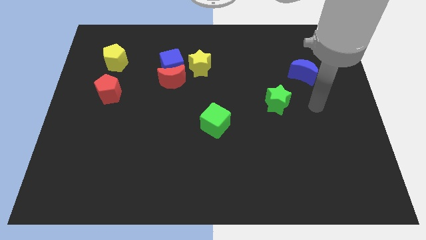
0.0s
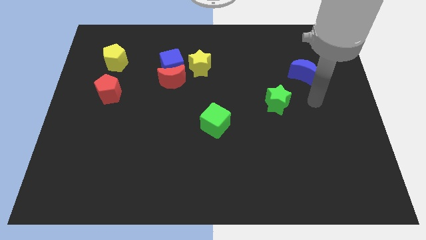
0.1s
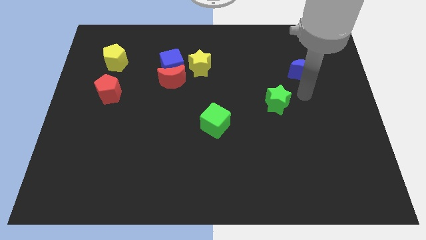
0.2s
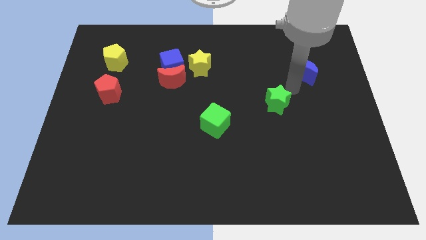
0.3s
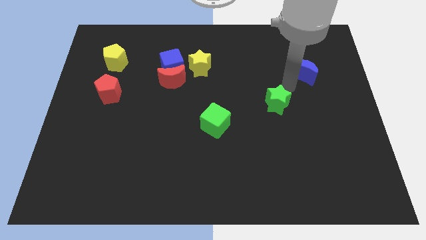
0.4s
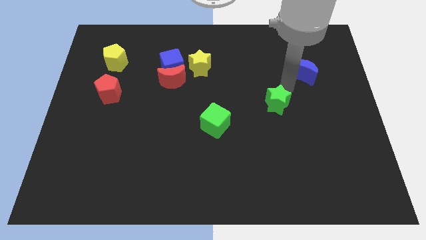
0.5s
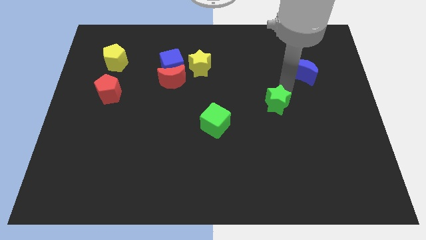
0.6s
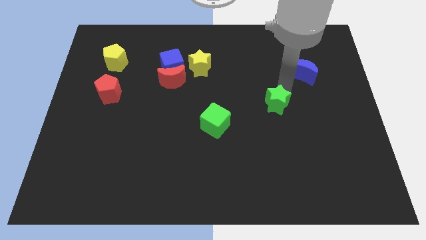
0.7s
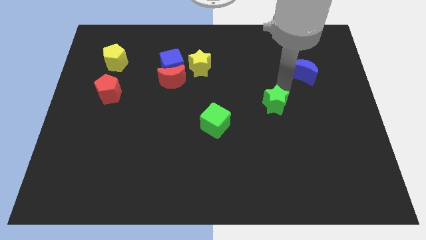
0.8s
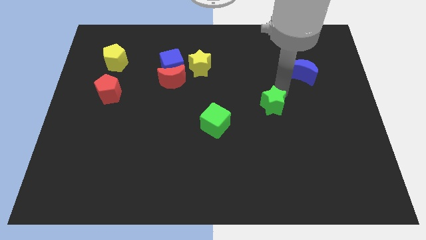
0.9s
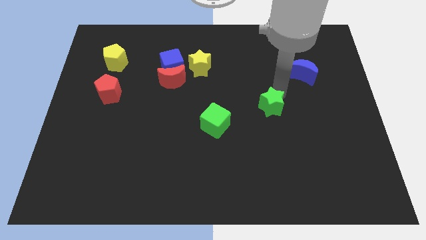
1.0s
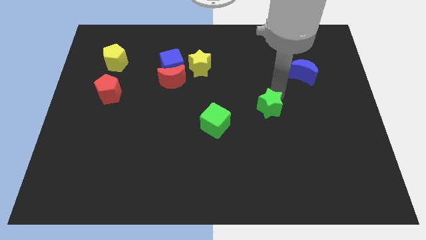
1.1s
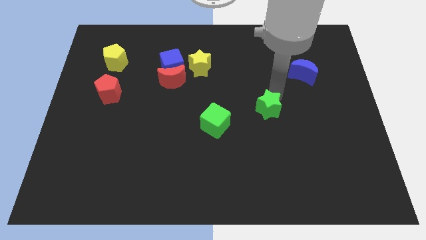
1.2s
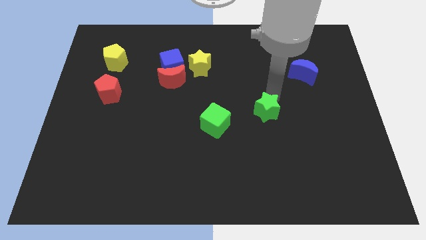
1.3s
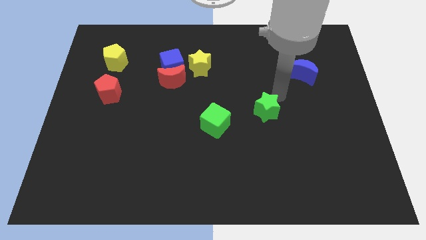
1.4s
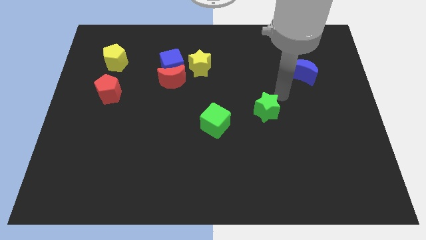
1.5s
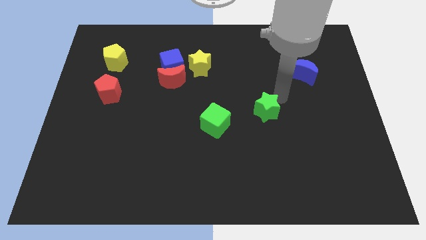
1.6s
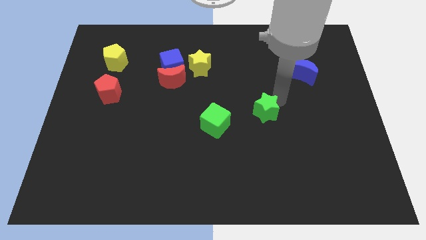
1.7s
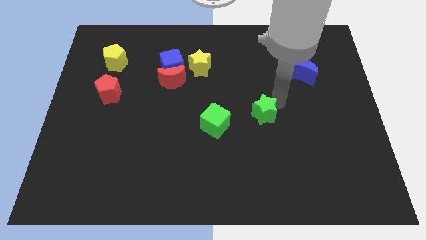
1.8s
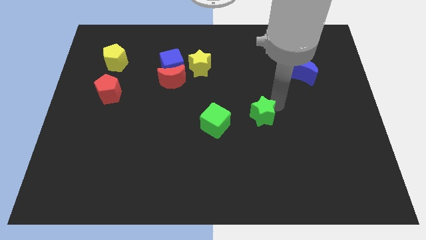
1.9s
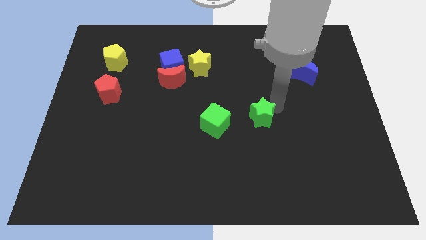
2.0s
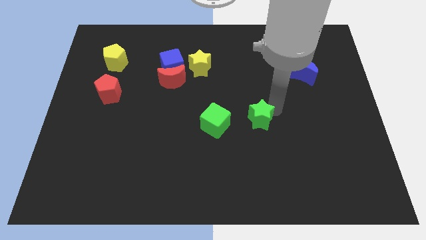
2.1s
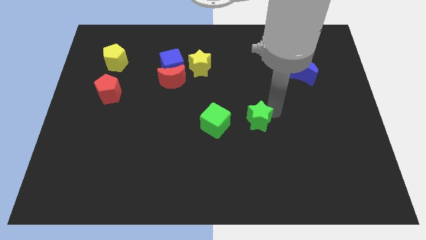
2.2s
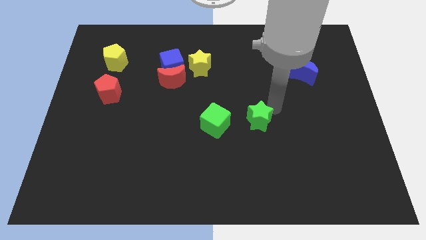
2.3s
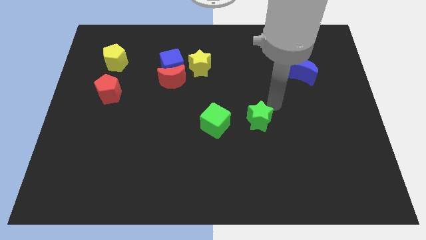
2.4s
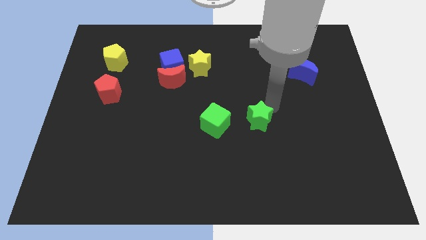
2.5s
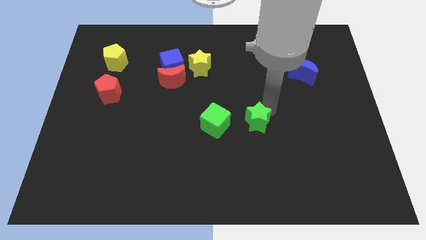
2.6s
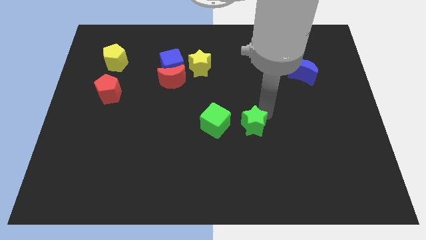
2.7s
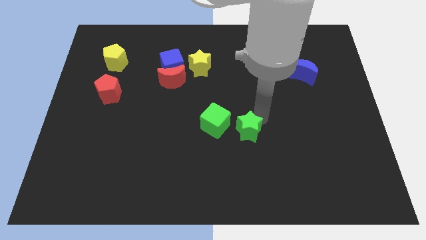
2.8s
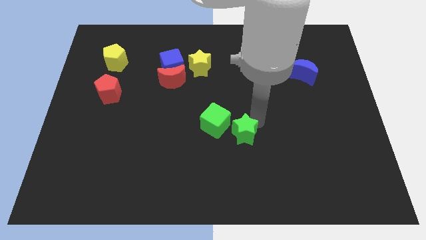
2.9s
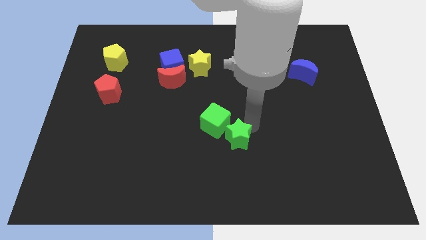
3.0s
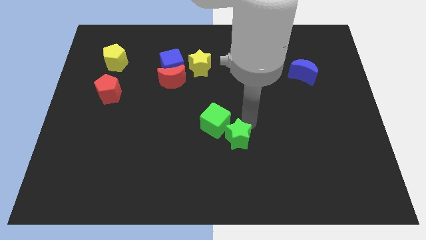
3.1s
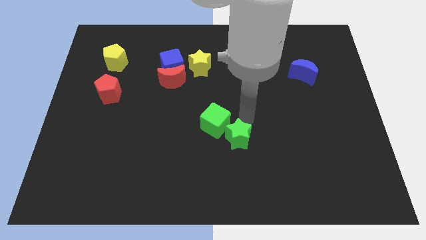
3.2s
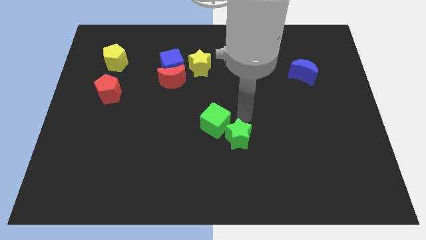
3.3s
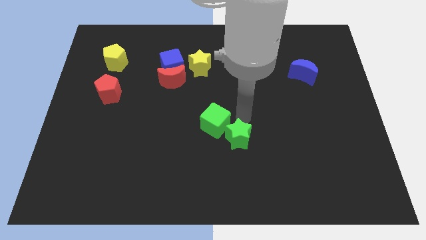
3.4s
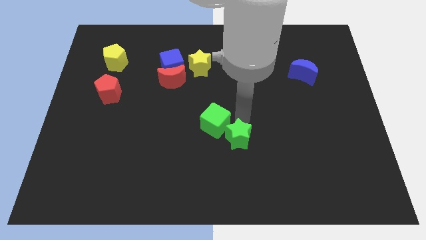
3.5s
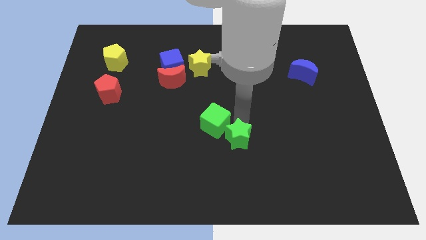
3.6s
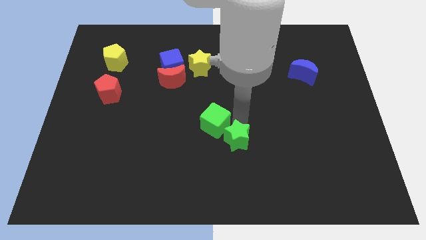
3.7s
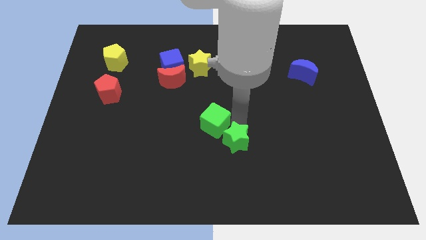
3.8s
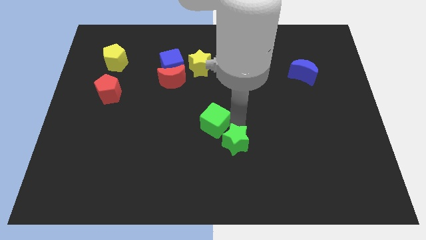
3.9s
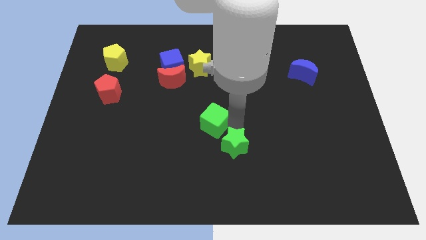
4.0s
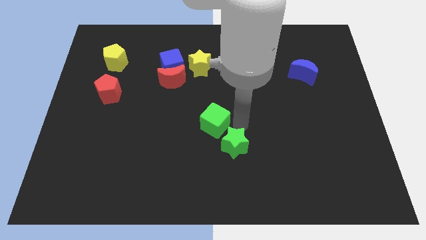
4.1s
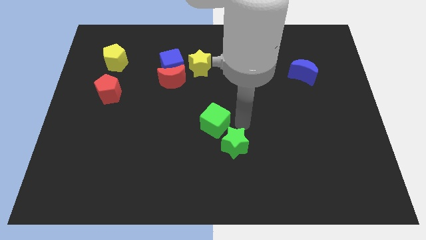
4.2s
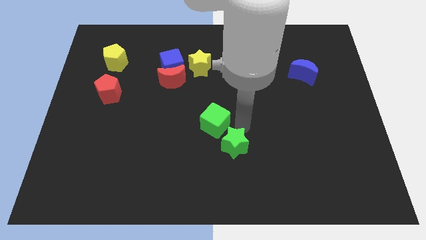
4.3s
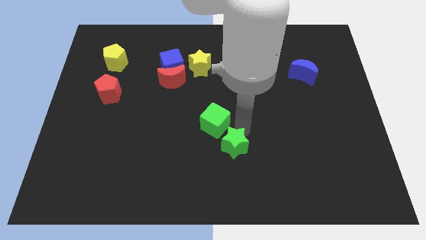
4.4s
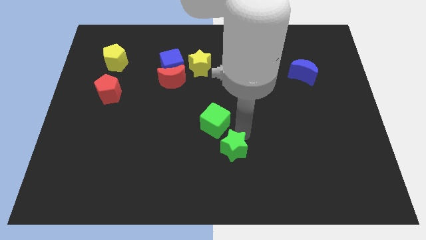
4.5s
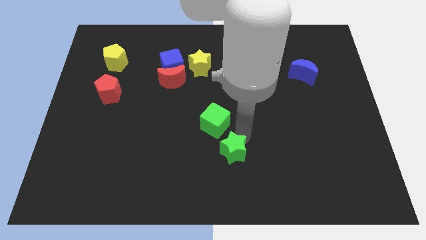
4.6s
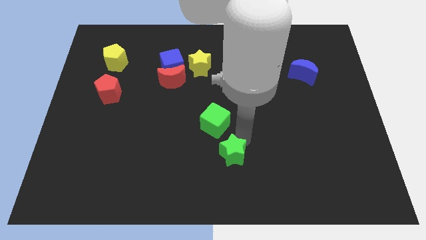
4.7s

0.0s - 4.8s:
slide the green star to the bottom

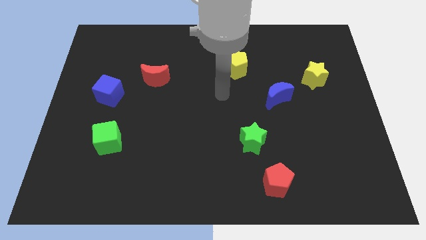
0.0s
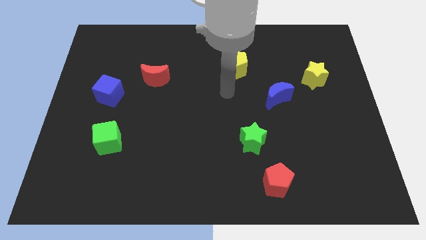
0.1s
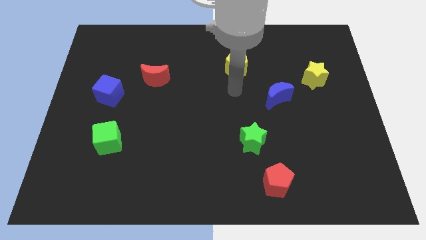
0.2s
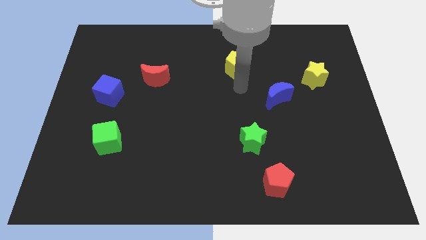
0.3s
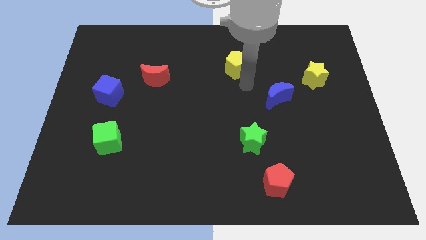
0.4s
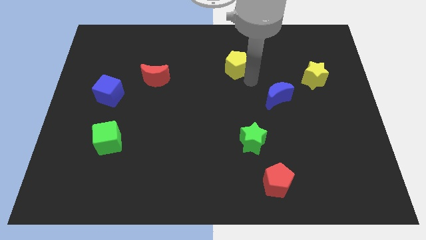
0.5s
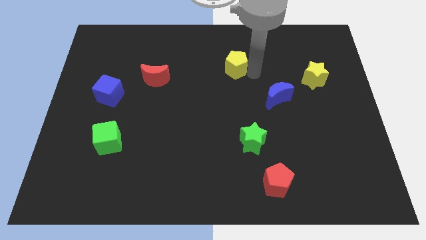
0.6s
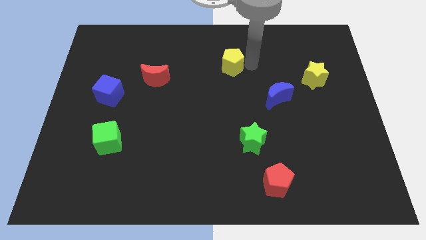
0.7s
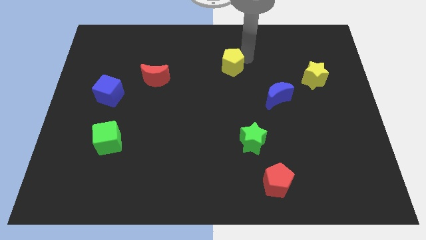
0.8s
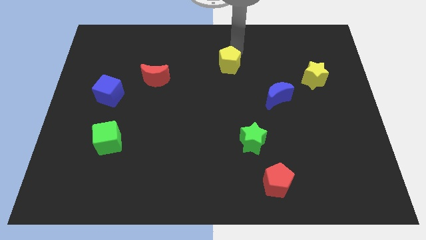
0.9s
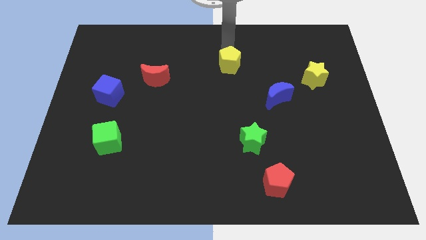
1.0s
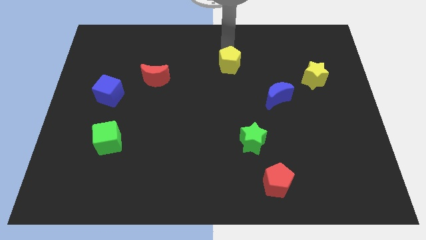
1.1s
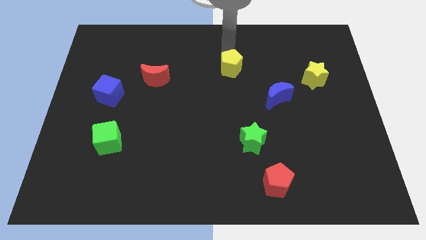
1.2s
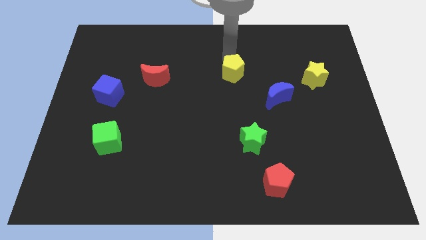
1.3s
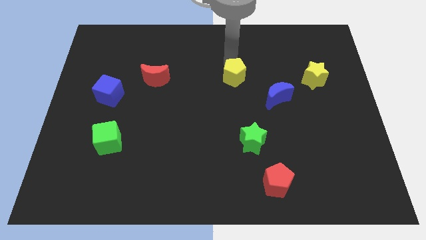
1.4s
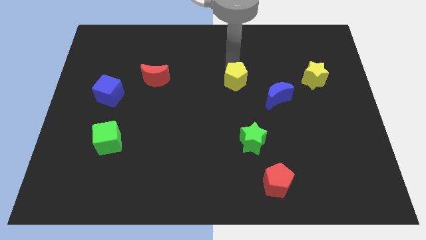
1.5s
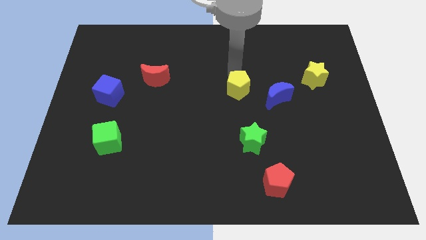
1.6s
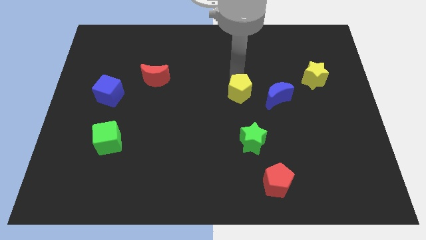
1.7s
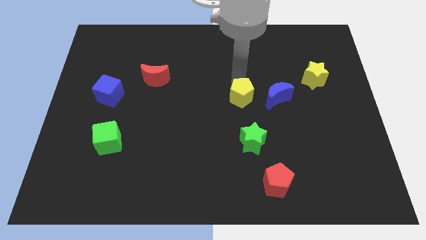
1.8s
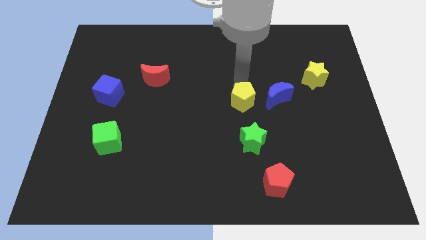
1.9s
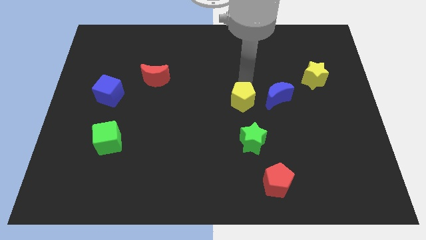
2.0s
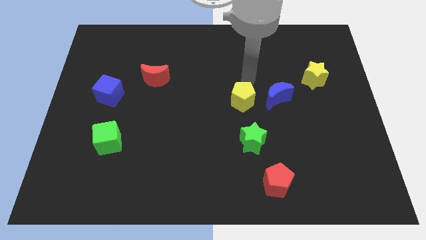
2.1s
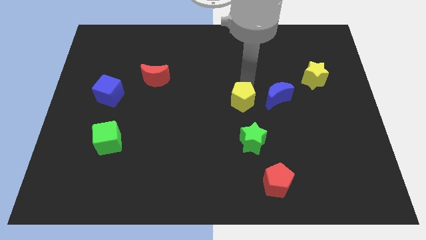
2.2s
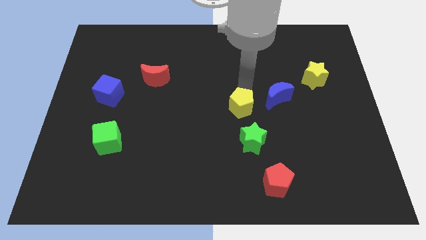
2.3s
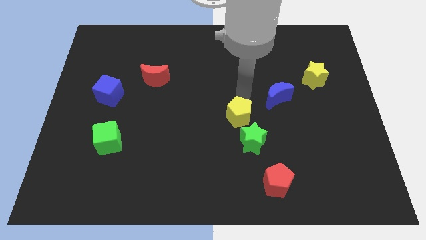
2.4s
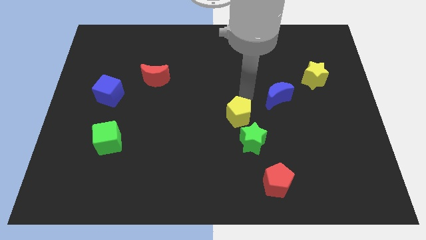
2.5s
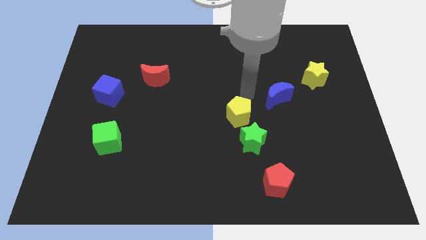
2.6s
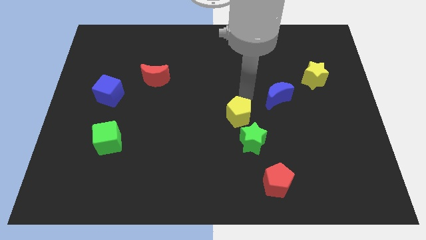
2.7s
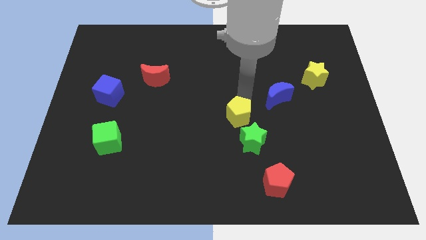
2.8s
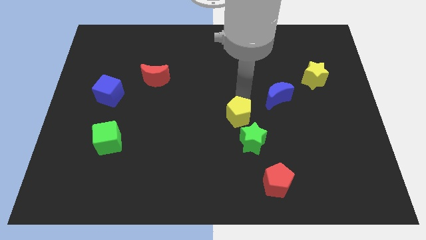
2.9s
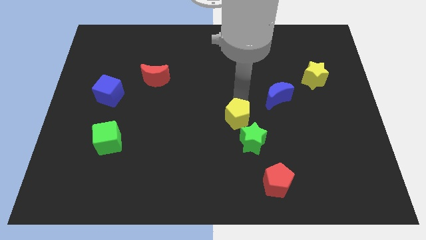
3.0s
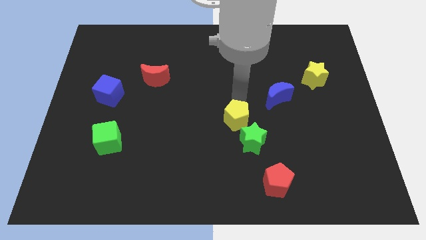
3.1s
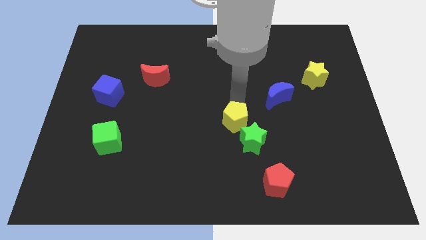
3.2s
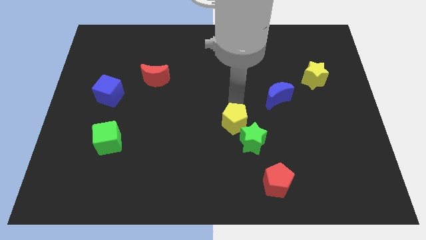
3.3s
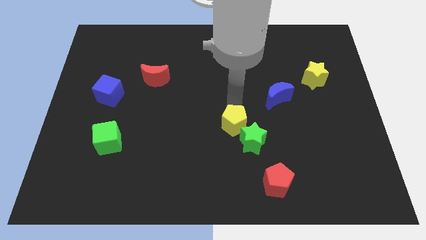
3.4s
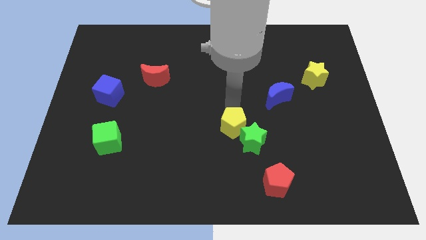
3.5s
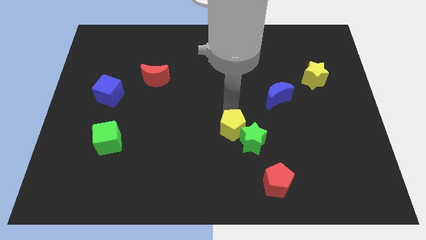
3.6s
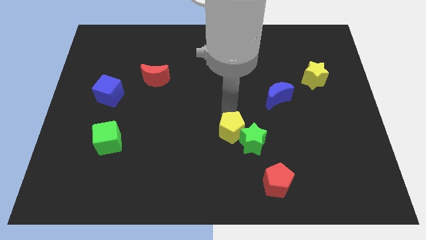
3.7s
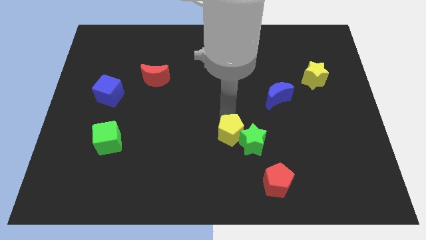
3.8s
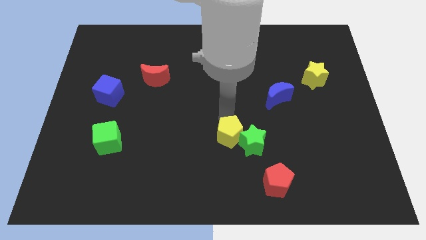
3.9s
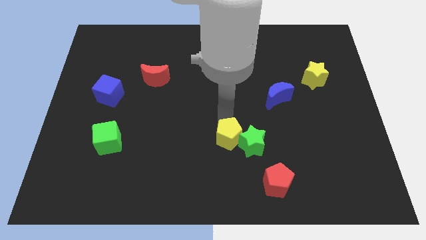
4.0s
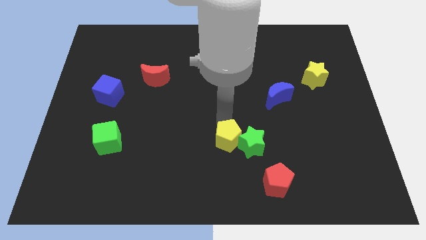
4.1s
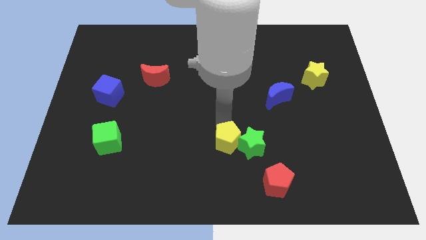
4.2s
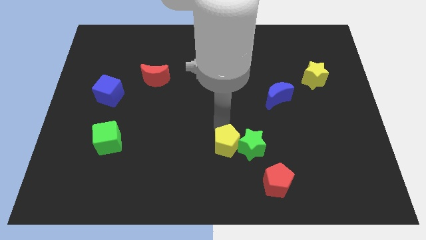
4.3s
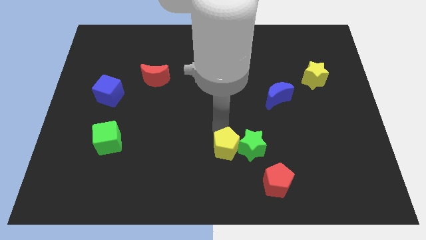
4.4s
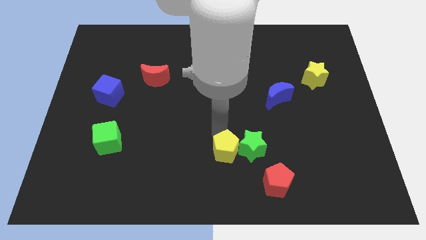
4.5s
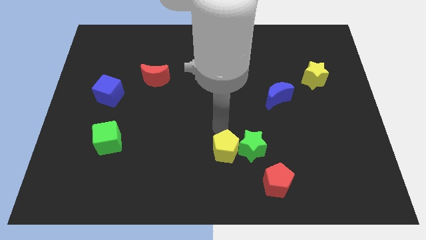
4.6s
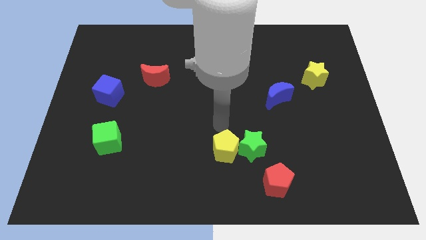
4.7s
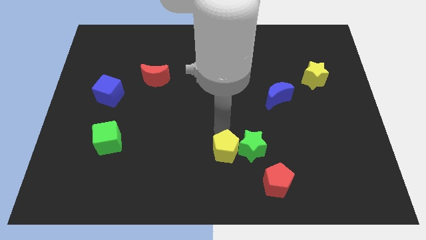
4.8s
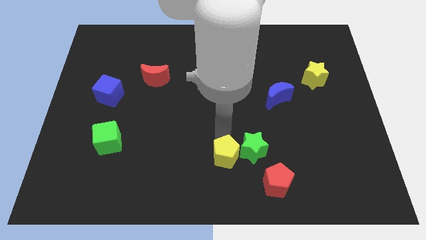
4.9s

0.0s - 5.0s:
push the yellow pentagon to the bottom
